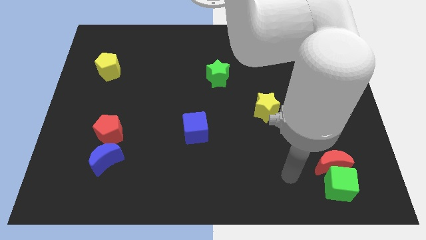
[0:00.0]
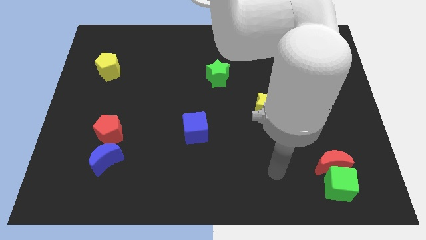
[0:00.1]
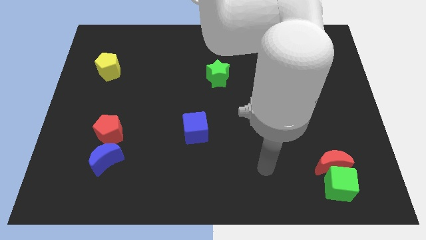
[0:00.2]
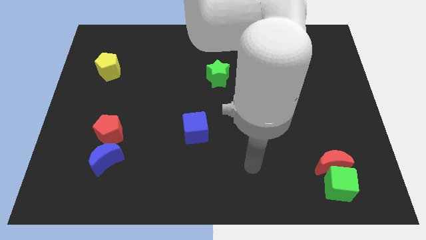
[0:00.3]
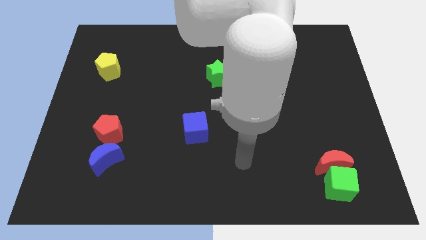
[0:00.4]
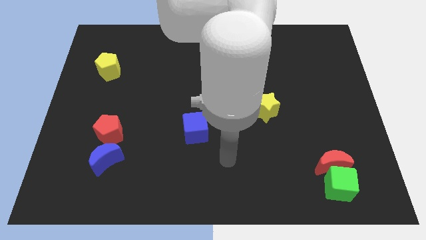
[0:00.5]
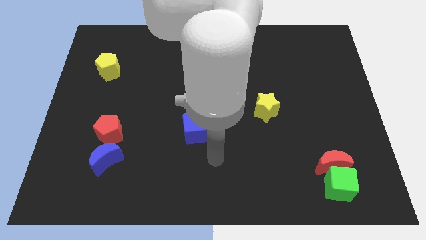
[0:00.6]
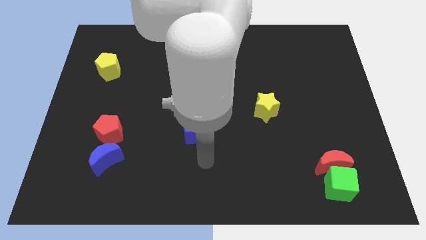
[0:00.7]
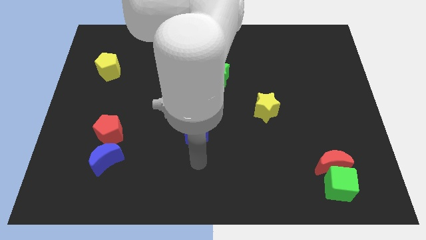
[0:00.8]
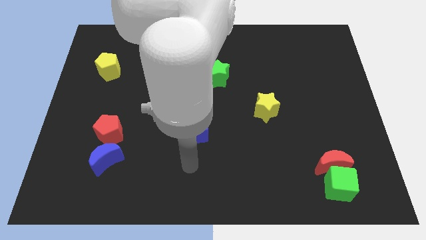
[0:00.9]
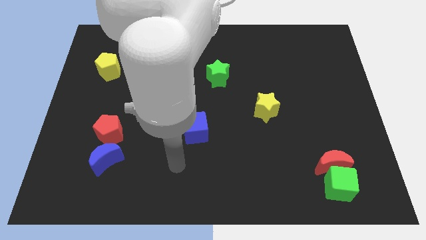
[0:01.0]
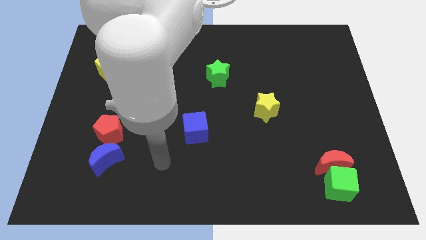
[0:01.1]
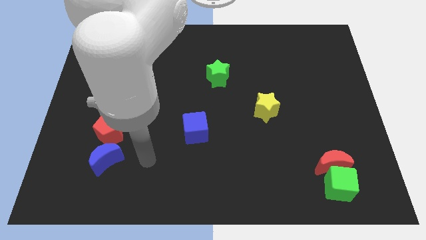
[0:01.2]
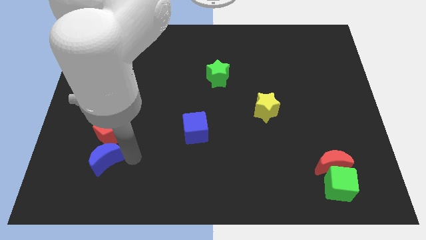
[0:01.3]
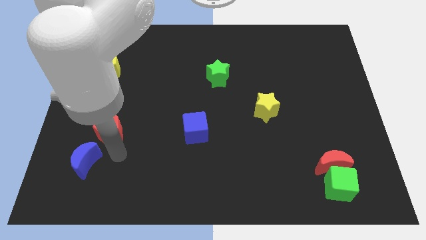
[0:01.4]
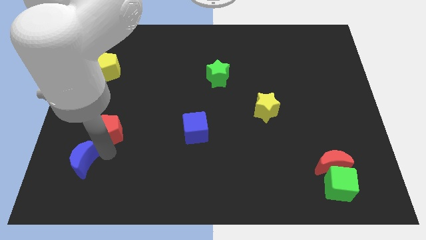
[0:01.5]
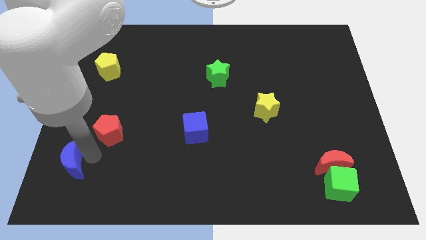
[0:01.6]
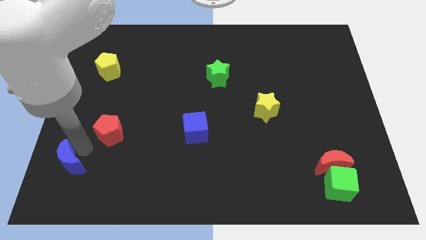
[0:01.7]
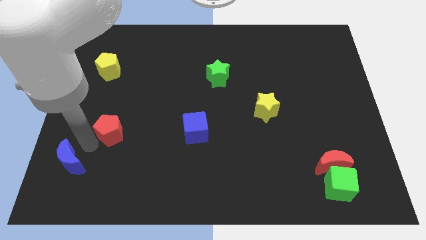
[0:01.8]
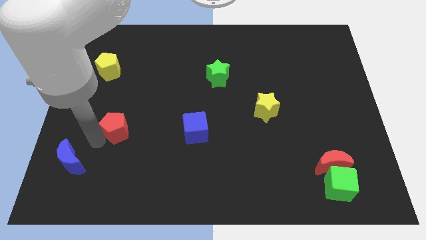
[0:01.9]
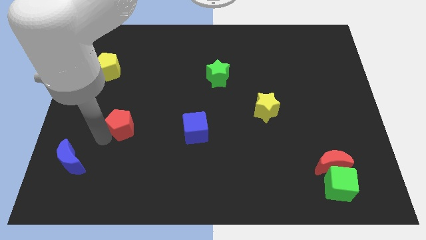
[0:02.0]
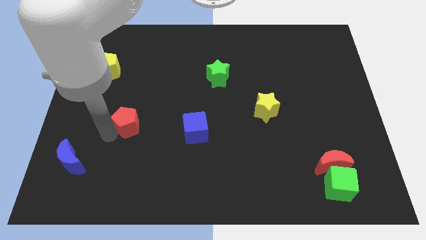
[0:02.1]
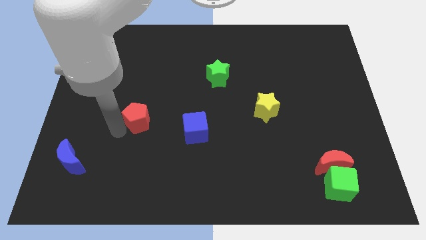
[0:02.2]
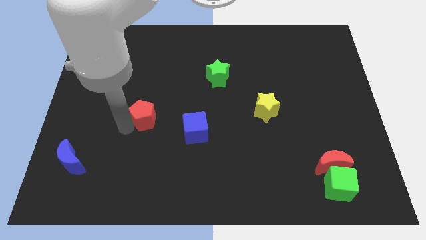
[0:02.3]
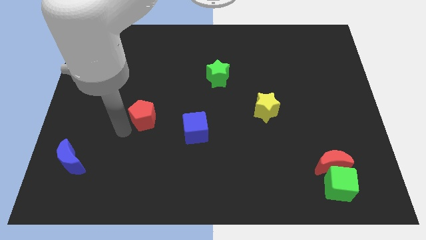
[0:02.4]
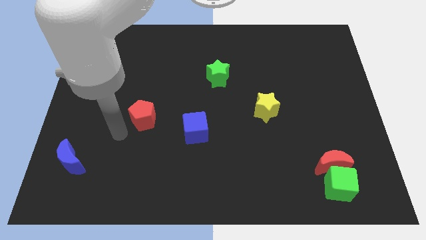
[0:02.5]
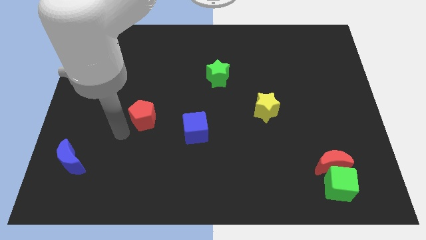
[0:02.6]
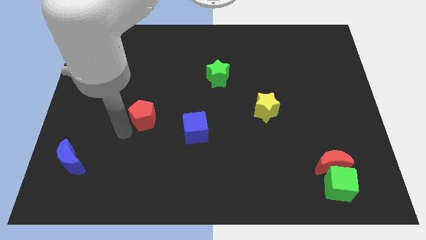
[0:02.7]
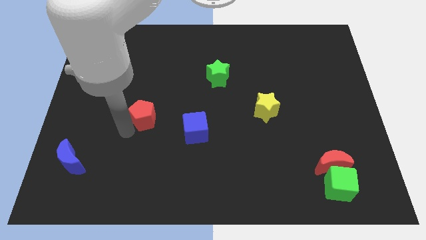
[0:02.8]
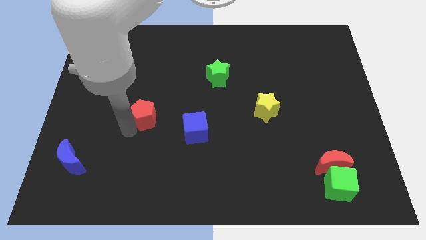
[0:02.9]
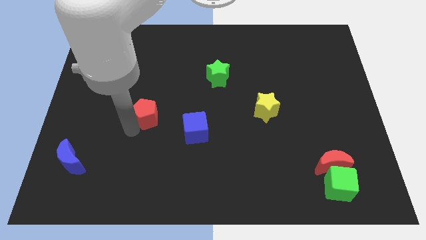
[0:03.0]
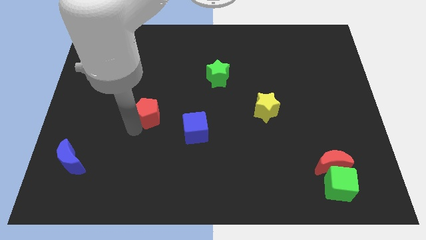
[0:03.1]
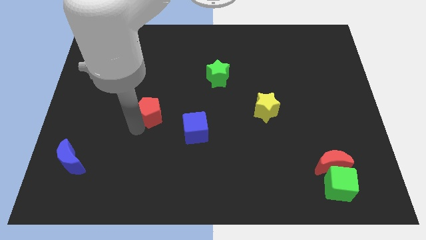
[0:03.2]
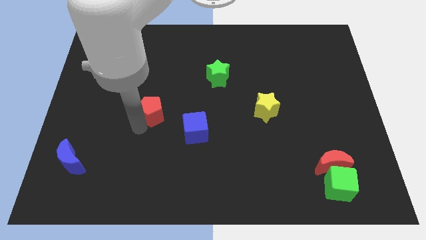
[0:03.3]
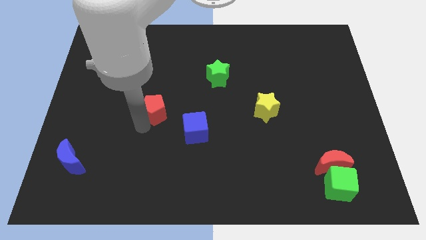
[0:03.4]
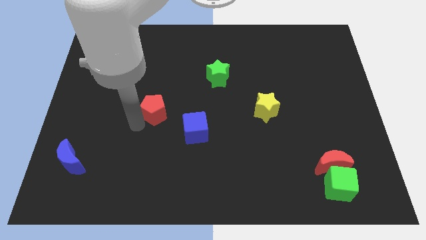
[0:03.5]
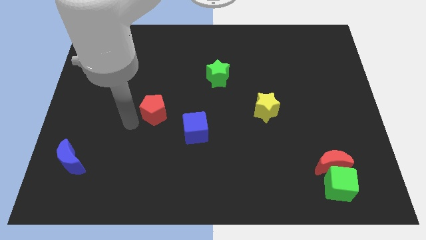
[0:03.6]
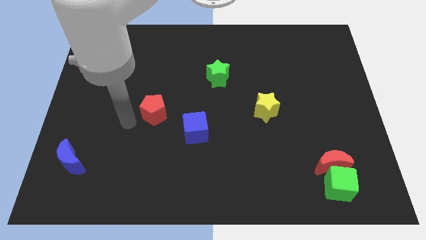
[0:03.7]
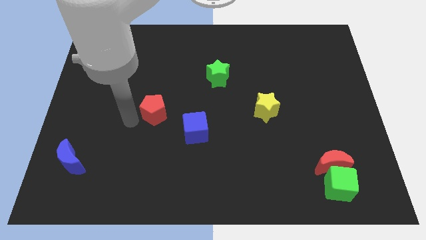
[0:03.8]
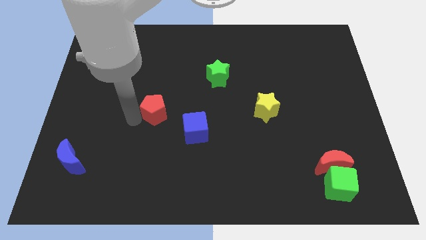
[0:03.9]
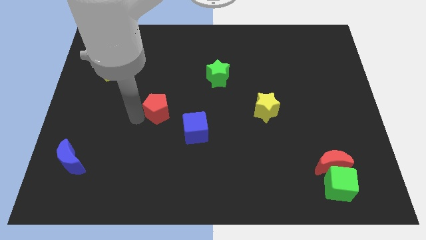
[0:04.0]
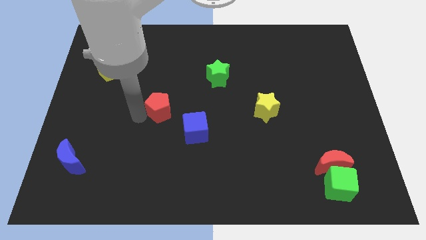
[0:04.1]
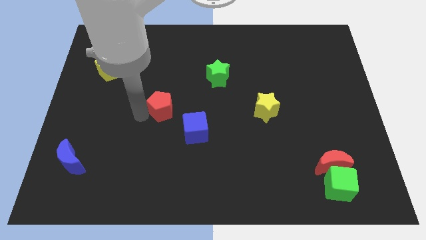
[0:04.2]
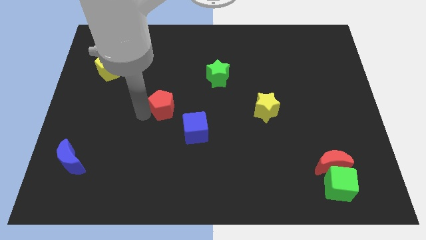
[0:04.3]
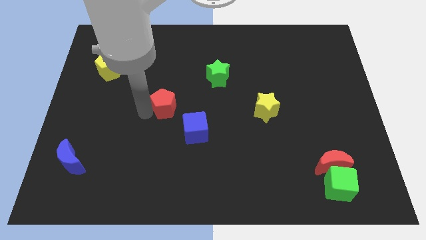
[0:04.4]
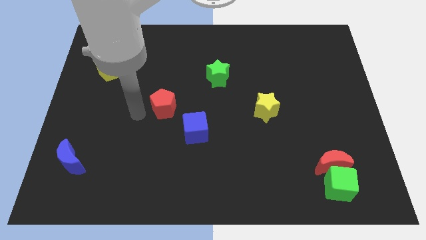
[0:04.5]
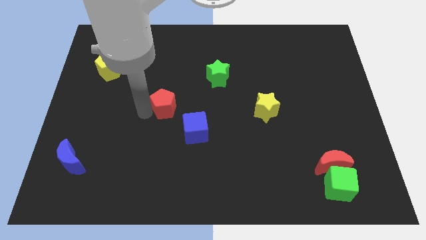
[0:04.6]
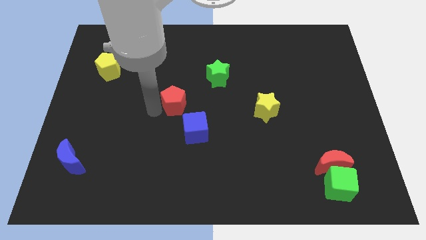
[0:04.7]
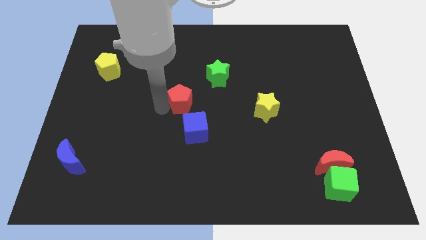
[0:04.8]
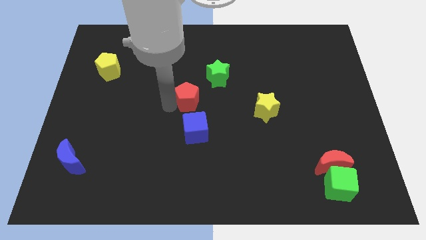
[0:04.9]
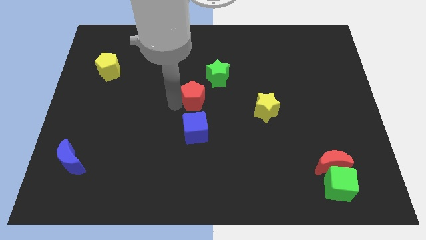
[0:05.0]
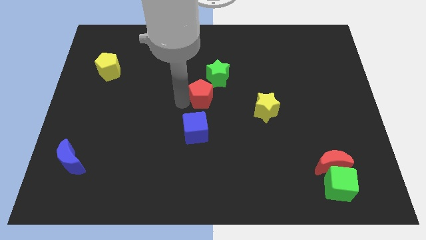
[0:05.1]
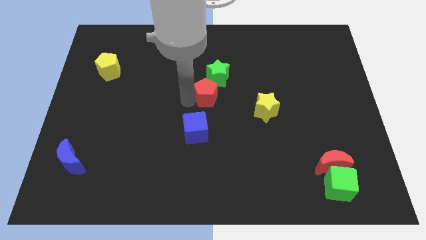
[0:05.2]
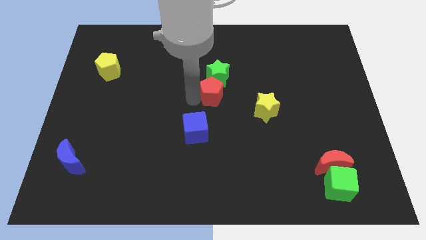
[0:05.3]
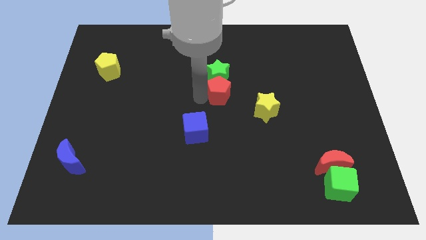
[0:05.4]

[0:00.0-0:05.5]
move the red pentagon diagonally down and to the right of the green star

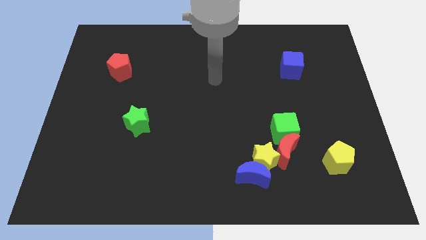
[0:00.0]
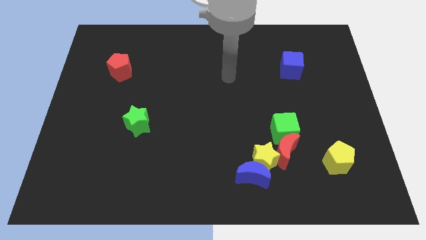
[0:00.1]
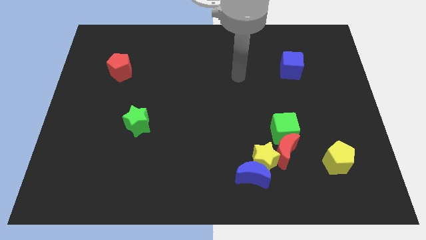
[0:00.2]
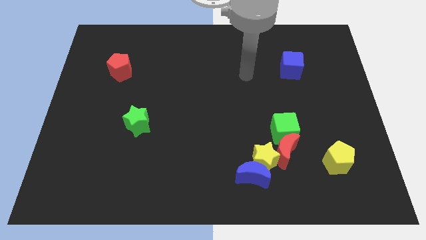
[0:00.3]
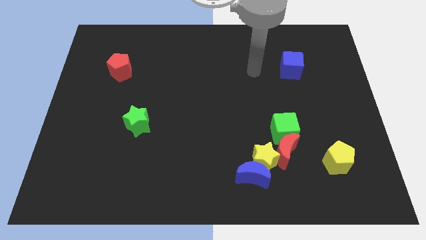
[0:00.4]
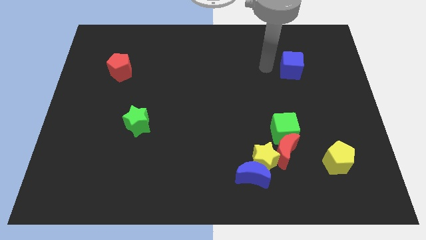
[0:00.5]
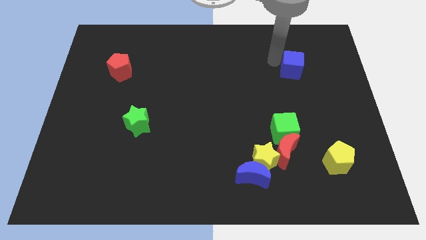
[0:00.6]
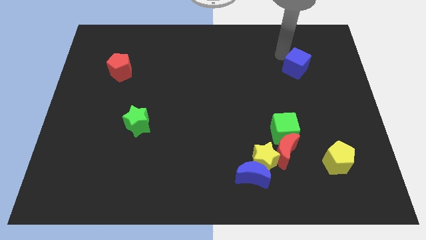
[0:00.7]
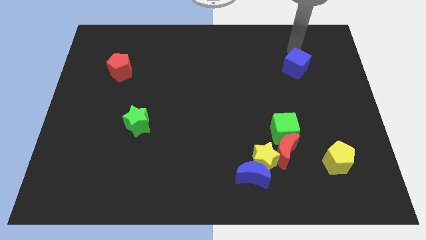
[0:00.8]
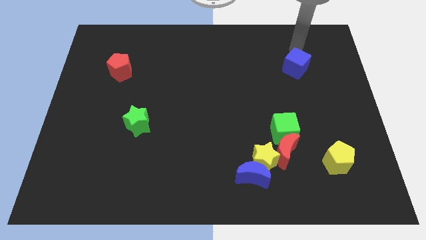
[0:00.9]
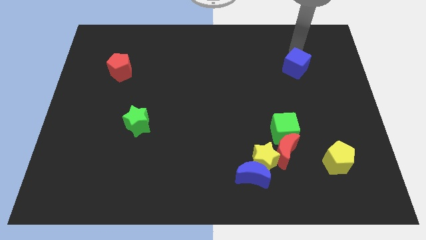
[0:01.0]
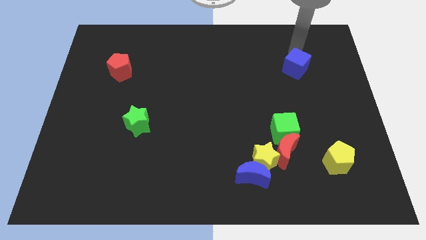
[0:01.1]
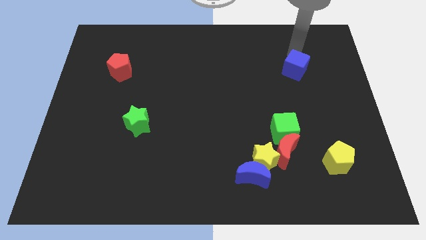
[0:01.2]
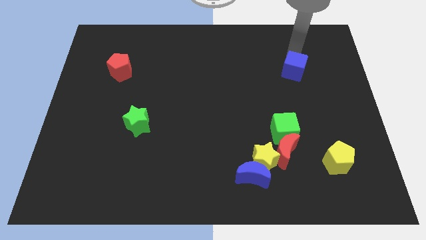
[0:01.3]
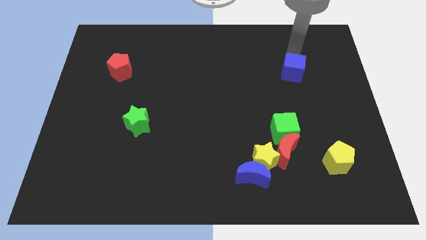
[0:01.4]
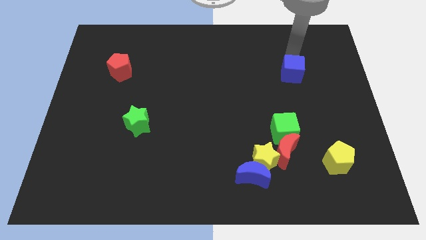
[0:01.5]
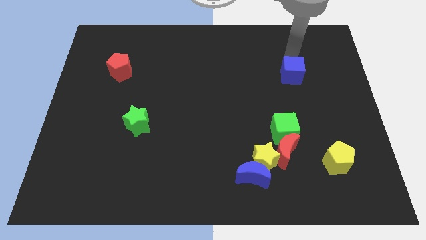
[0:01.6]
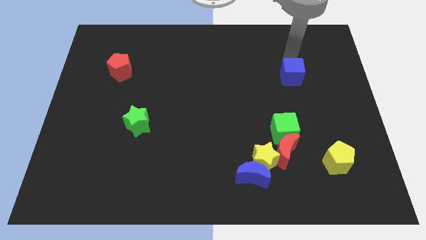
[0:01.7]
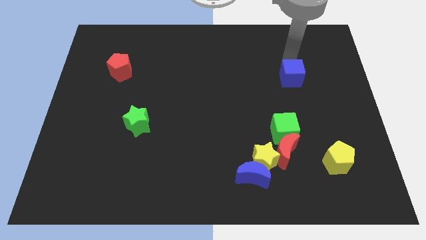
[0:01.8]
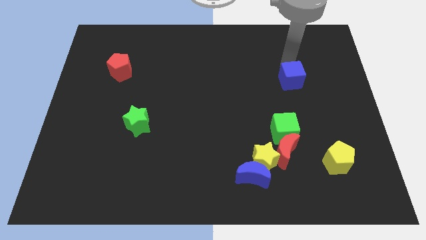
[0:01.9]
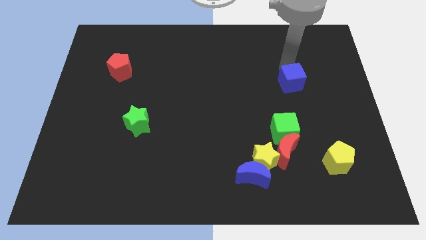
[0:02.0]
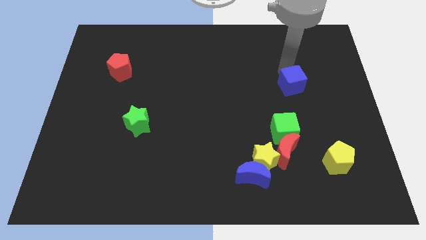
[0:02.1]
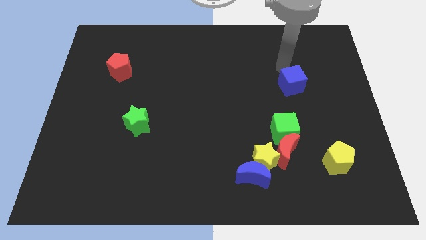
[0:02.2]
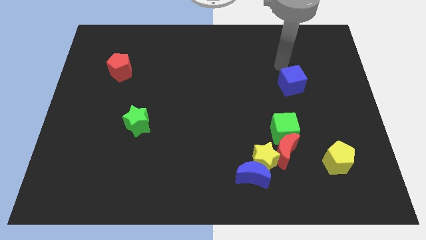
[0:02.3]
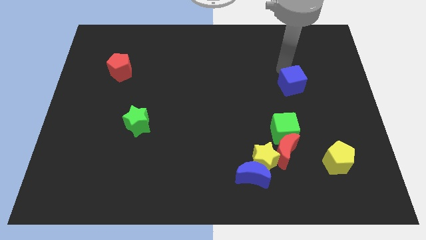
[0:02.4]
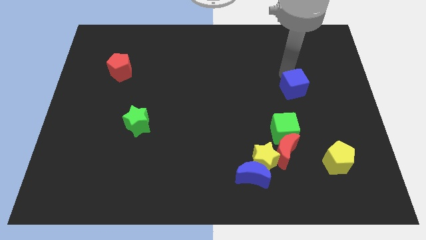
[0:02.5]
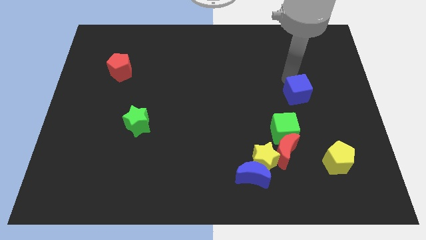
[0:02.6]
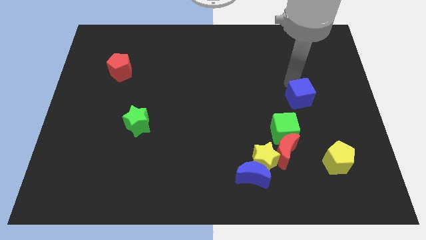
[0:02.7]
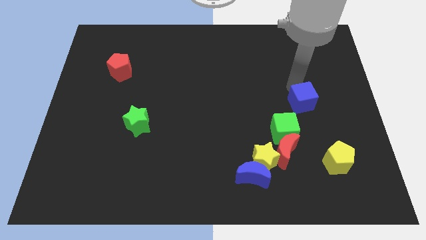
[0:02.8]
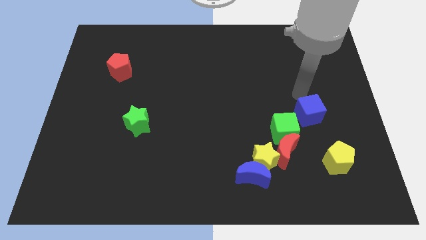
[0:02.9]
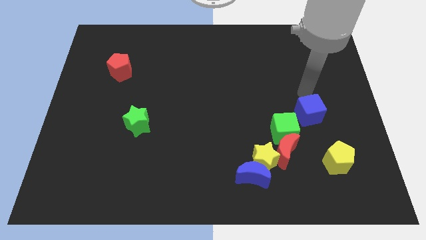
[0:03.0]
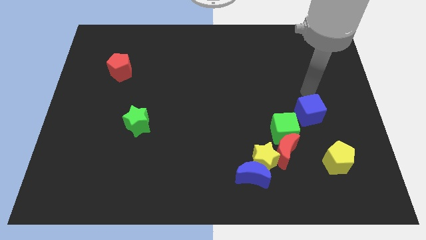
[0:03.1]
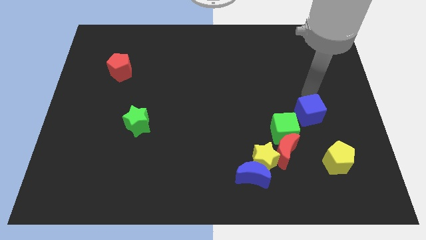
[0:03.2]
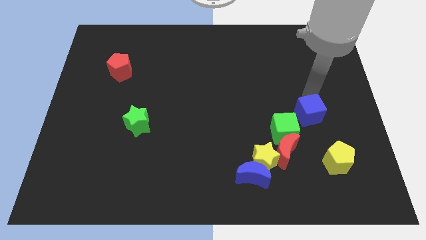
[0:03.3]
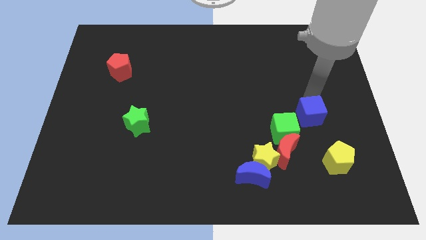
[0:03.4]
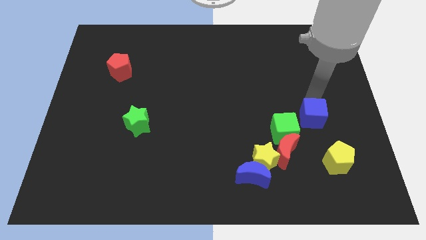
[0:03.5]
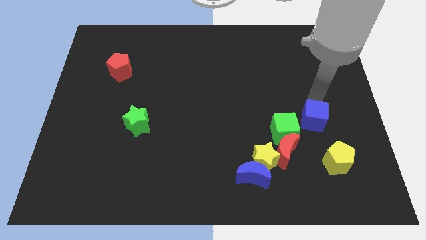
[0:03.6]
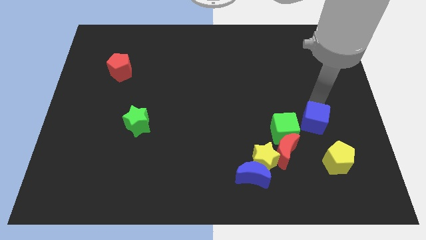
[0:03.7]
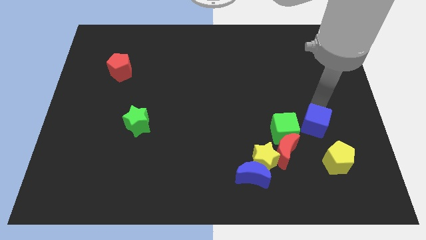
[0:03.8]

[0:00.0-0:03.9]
put the blue cube to the top left side of the yellow pentagon
